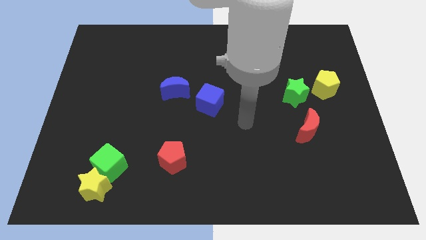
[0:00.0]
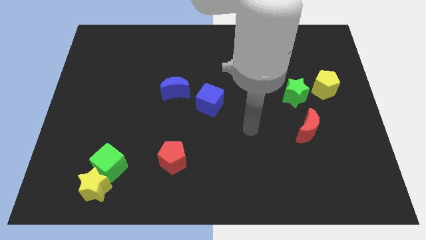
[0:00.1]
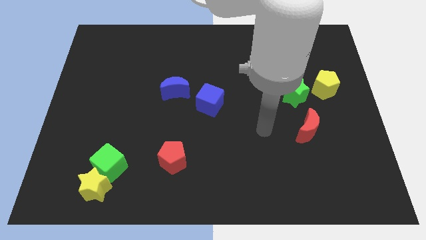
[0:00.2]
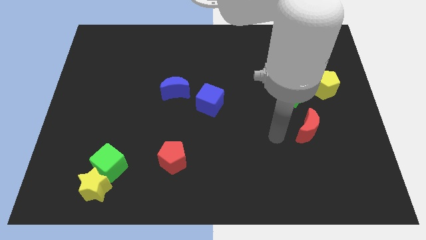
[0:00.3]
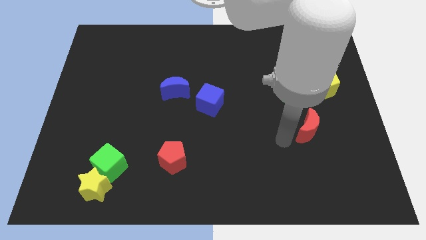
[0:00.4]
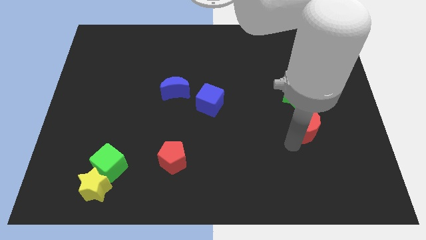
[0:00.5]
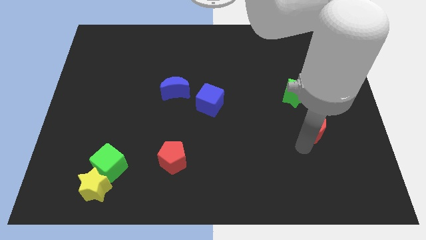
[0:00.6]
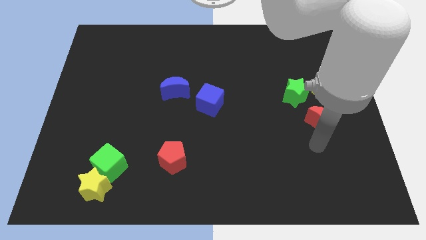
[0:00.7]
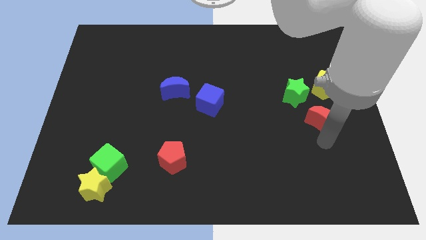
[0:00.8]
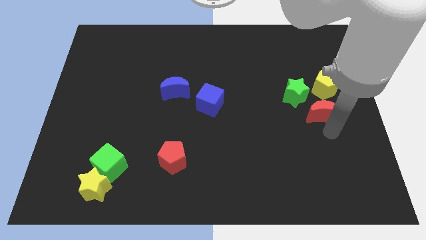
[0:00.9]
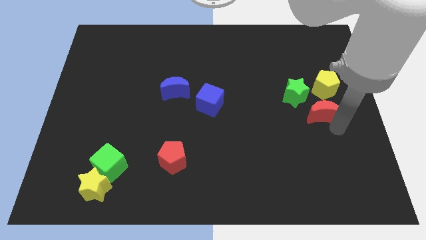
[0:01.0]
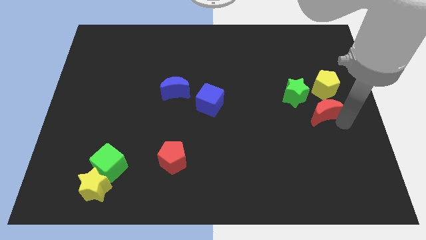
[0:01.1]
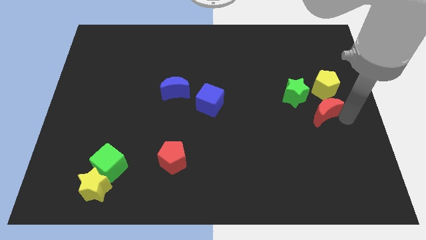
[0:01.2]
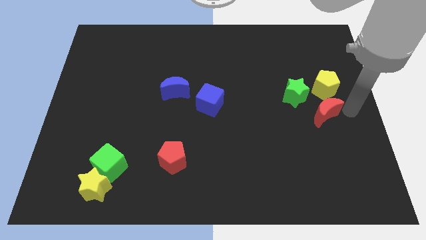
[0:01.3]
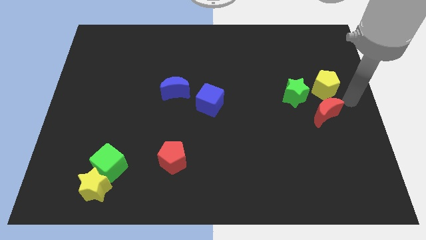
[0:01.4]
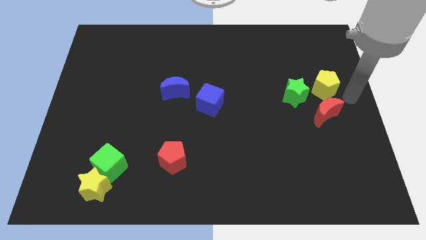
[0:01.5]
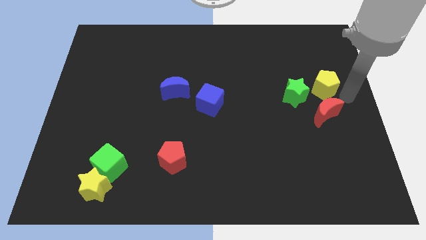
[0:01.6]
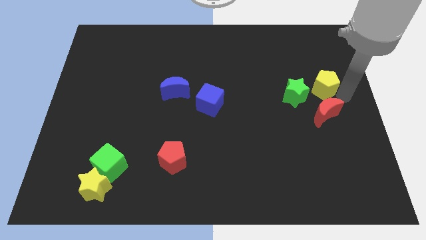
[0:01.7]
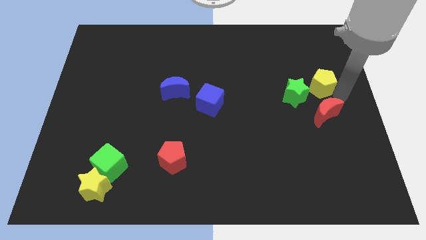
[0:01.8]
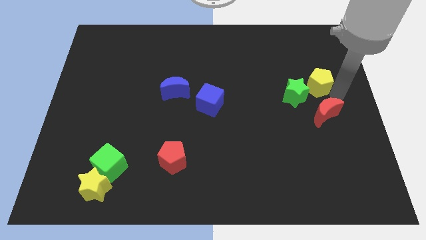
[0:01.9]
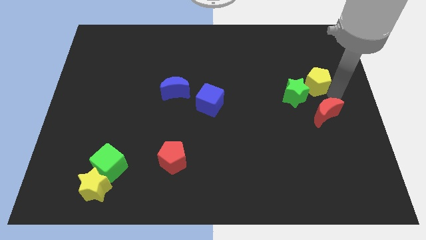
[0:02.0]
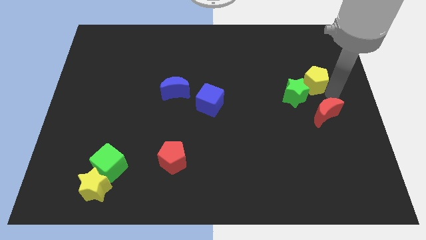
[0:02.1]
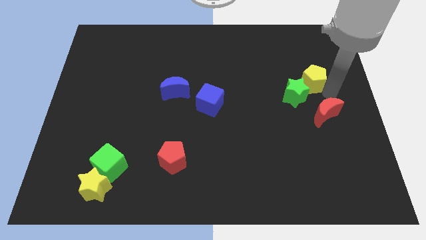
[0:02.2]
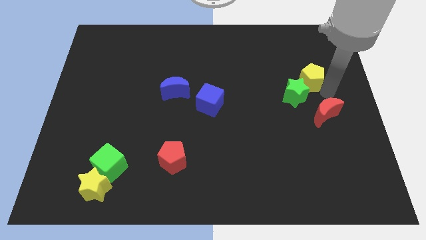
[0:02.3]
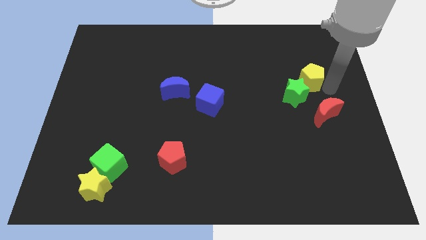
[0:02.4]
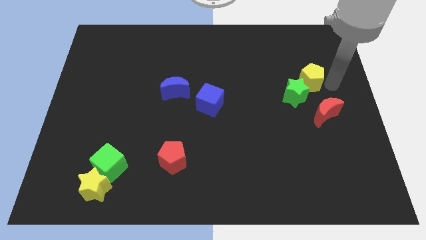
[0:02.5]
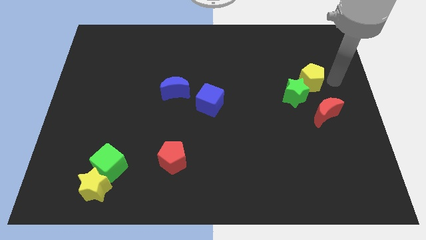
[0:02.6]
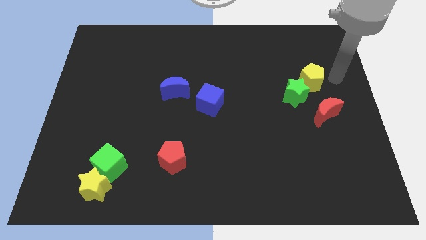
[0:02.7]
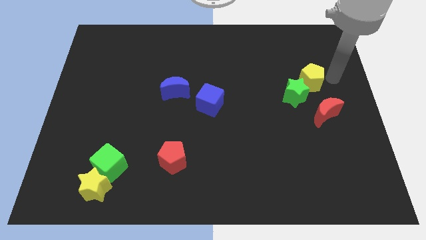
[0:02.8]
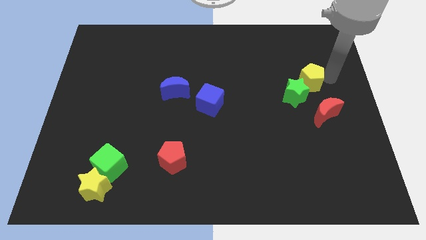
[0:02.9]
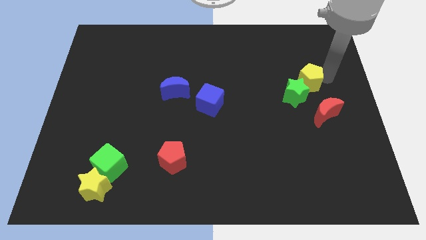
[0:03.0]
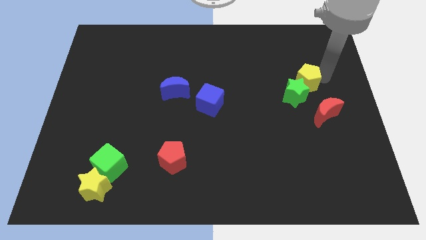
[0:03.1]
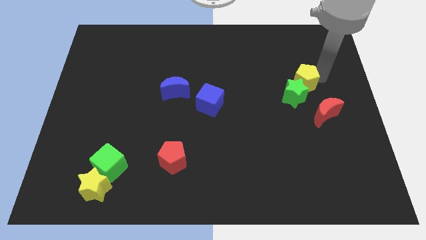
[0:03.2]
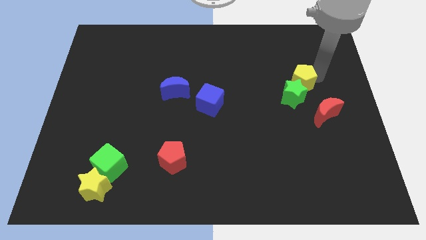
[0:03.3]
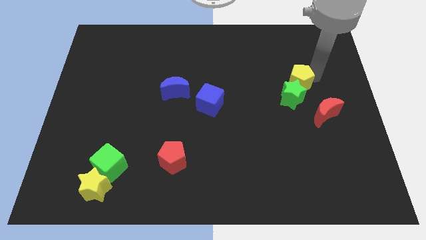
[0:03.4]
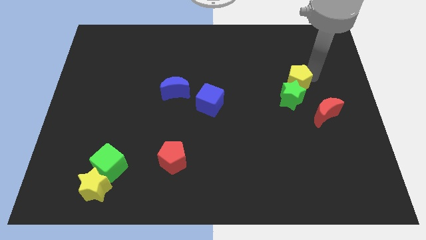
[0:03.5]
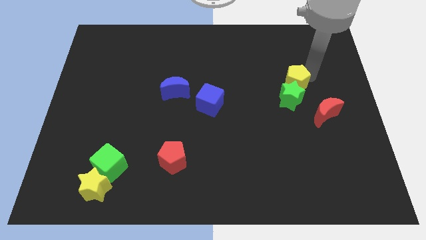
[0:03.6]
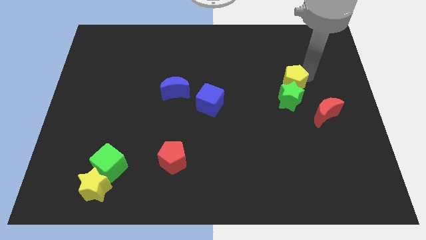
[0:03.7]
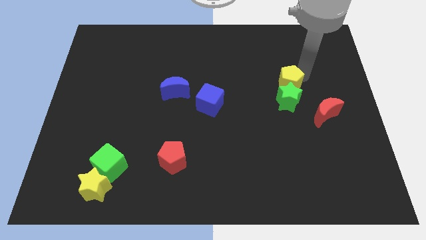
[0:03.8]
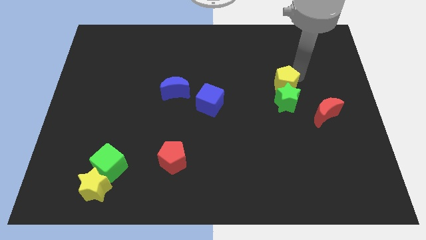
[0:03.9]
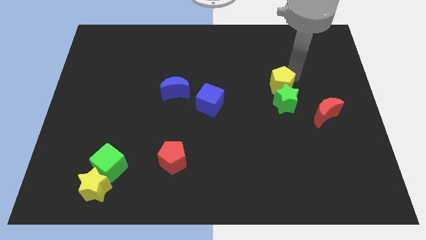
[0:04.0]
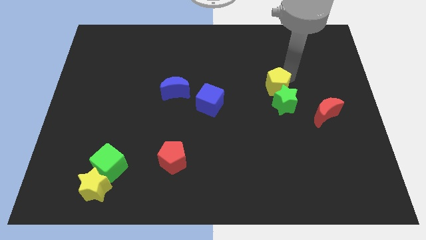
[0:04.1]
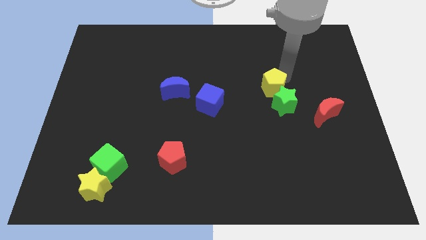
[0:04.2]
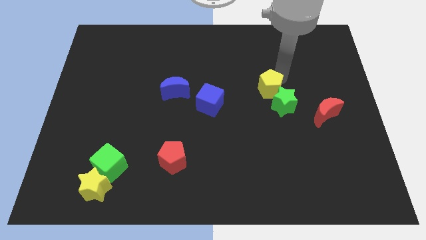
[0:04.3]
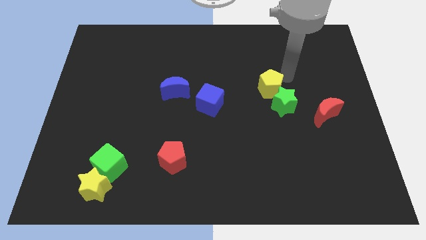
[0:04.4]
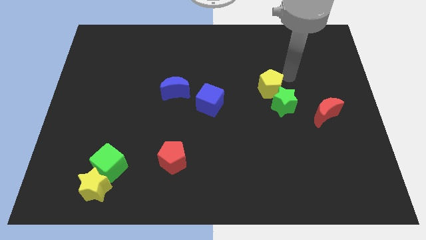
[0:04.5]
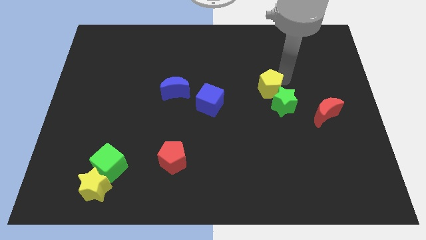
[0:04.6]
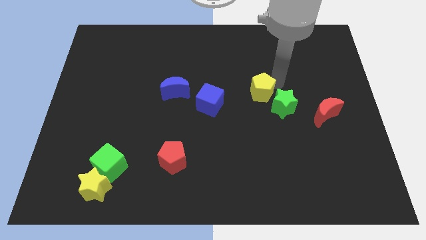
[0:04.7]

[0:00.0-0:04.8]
move the yellow pentagon left of the green star

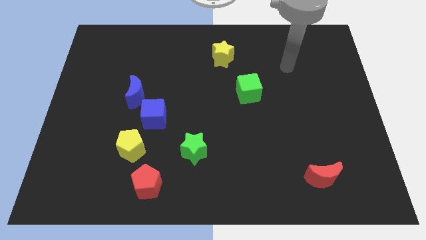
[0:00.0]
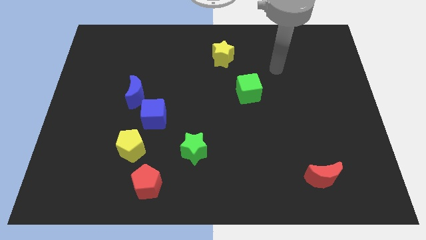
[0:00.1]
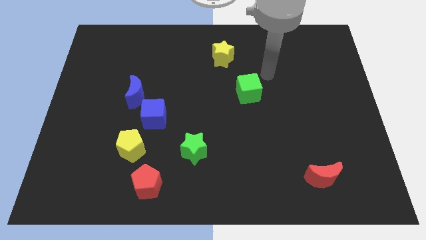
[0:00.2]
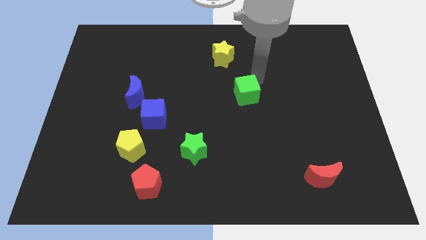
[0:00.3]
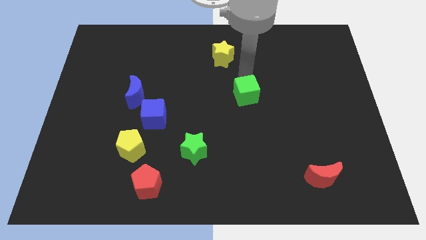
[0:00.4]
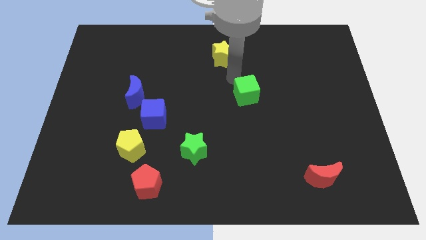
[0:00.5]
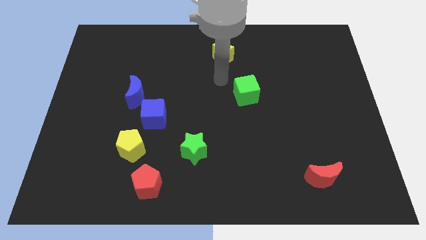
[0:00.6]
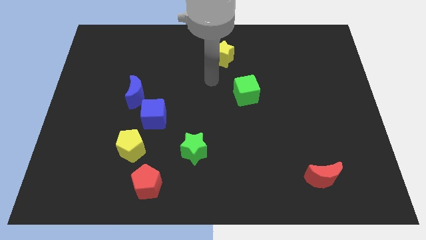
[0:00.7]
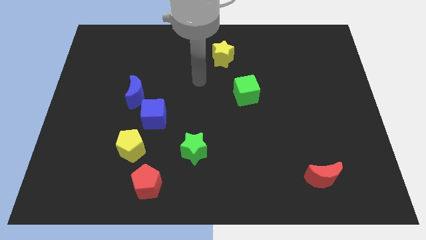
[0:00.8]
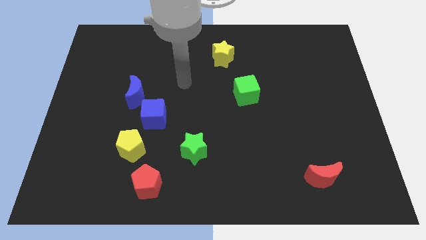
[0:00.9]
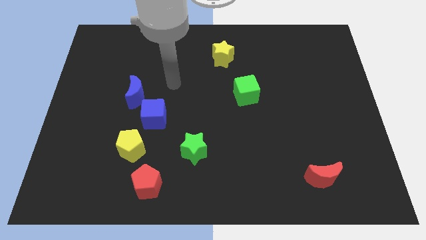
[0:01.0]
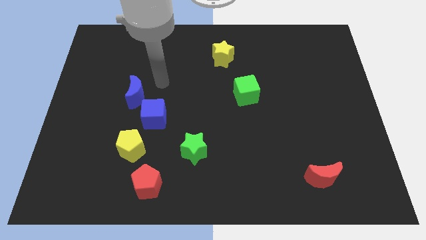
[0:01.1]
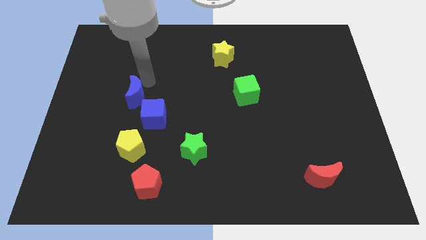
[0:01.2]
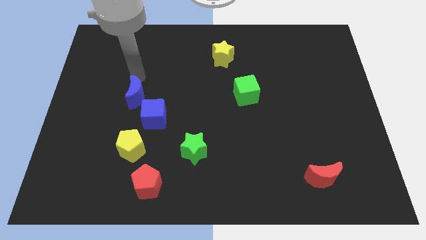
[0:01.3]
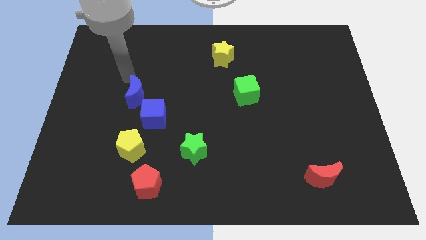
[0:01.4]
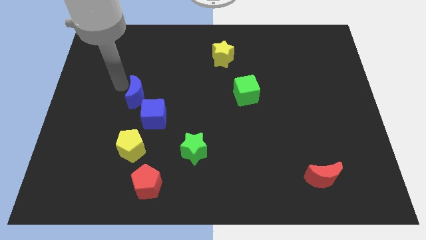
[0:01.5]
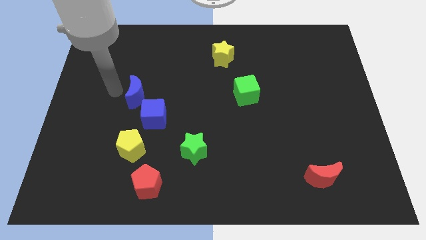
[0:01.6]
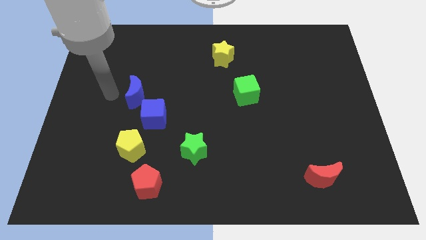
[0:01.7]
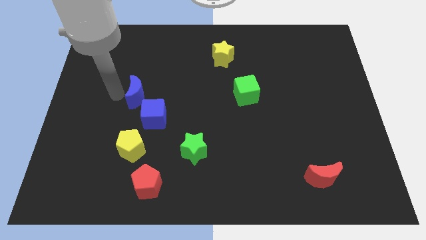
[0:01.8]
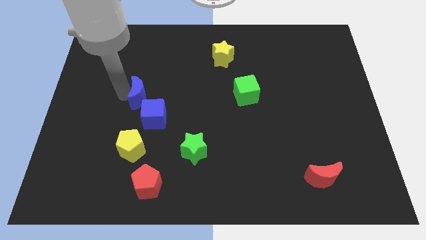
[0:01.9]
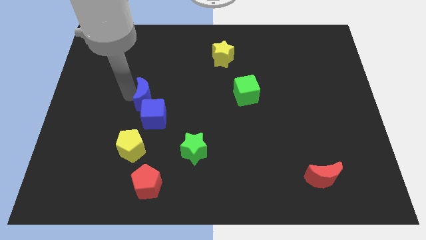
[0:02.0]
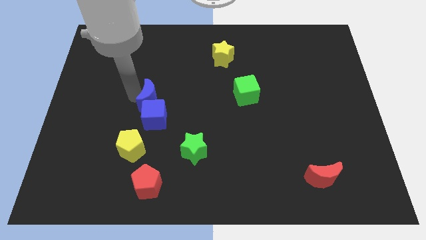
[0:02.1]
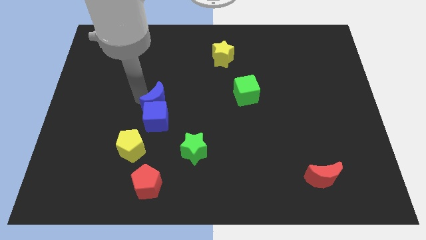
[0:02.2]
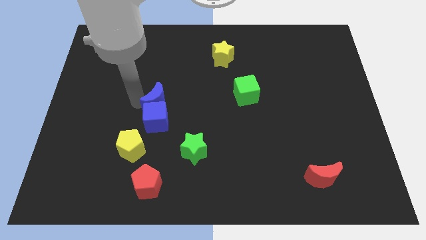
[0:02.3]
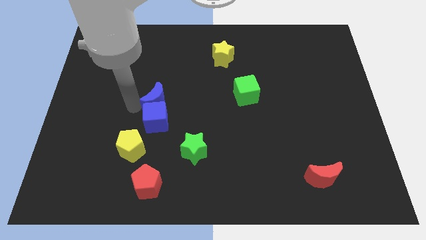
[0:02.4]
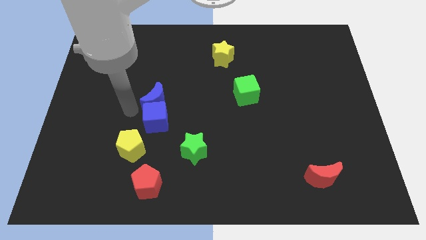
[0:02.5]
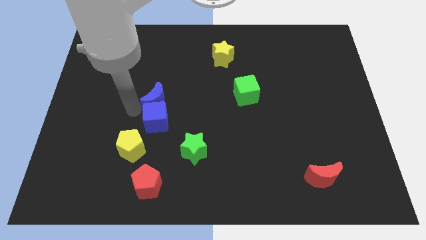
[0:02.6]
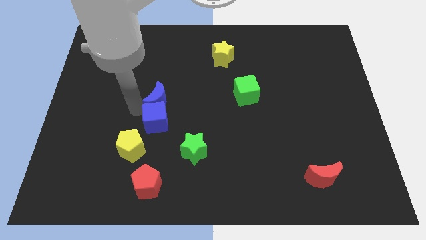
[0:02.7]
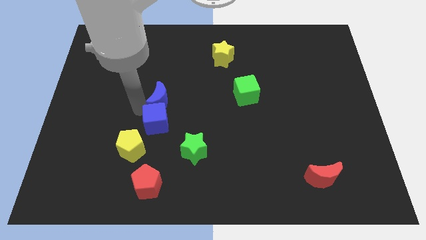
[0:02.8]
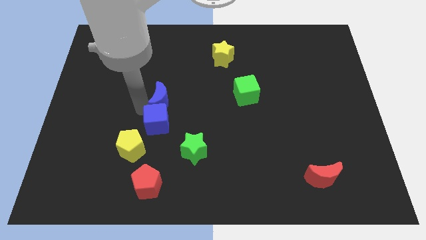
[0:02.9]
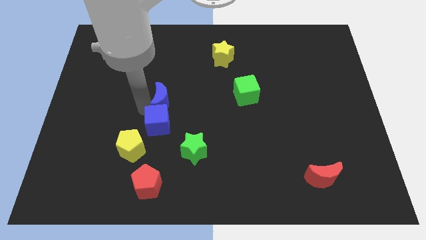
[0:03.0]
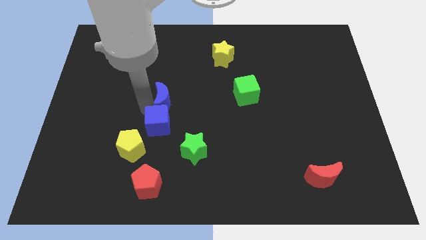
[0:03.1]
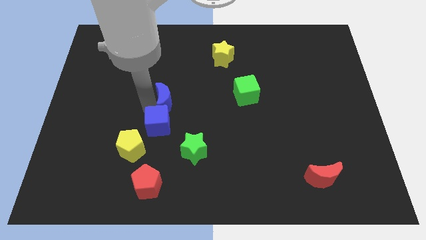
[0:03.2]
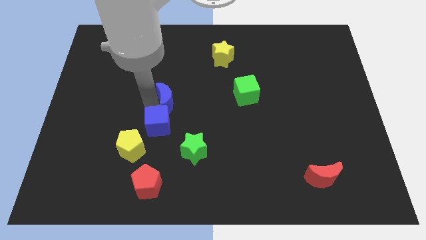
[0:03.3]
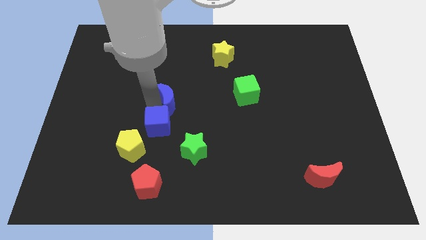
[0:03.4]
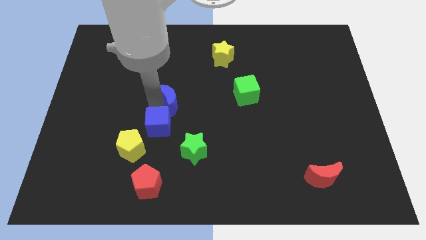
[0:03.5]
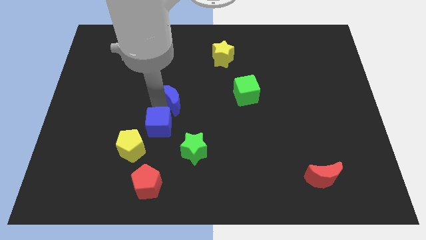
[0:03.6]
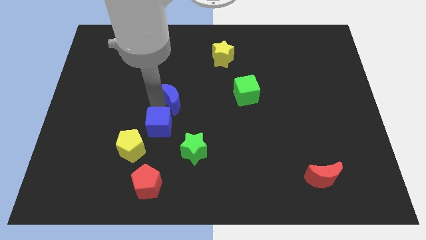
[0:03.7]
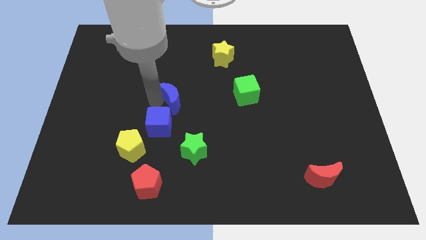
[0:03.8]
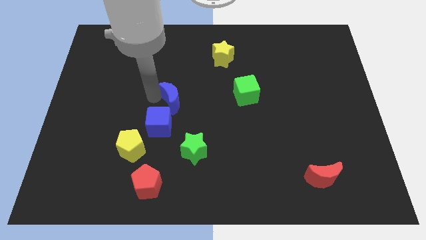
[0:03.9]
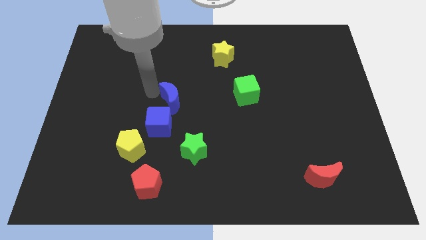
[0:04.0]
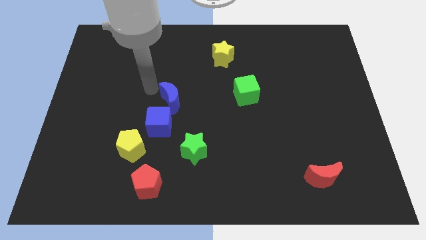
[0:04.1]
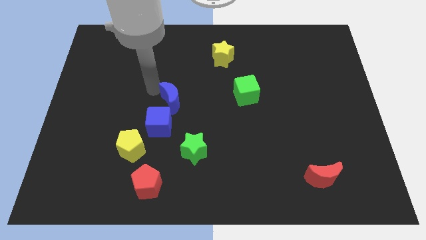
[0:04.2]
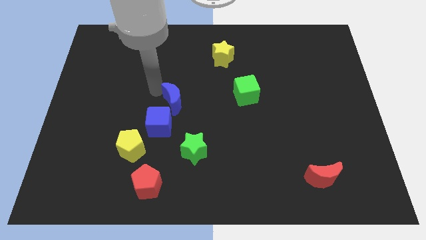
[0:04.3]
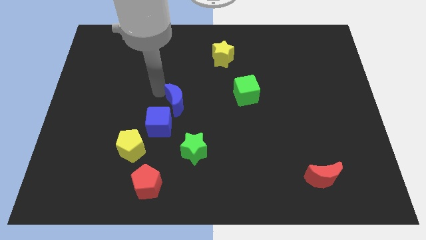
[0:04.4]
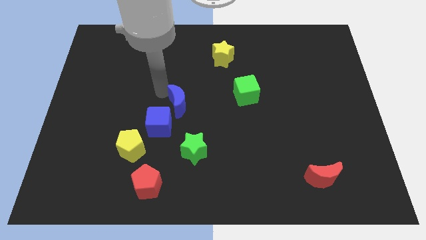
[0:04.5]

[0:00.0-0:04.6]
push the blue moon to the top of the green star
